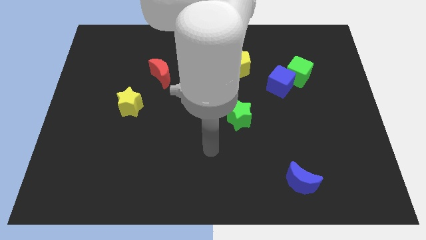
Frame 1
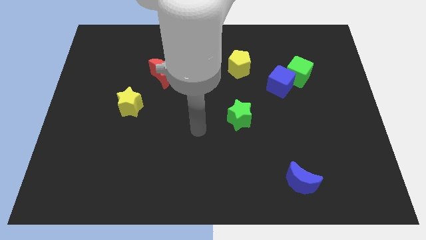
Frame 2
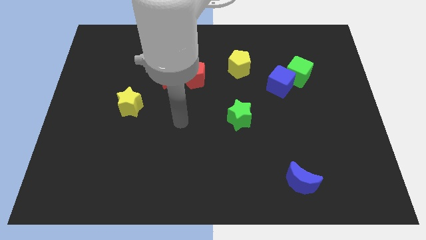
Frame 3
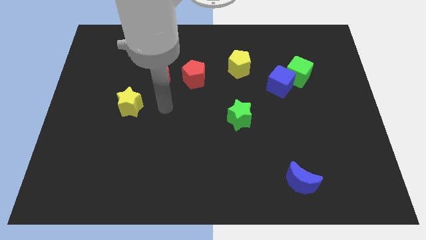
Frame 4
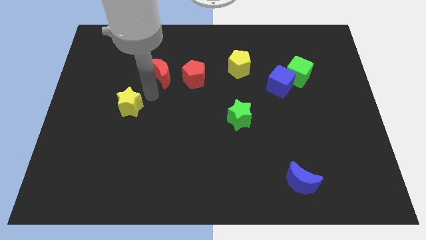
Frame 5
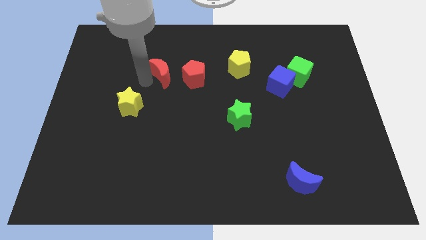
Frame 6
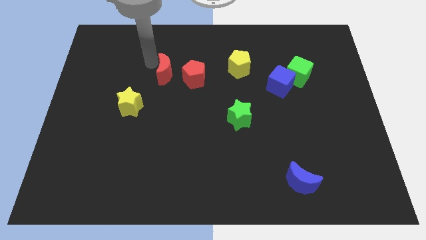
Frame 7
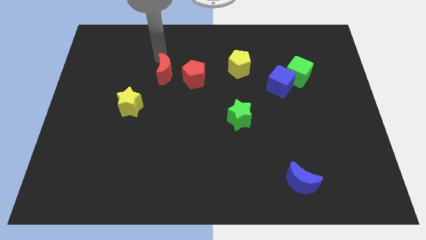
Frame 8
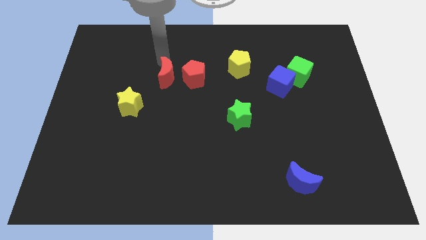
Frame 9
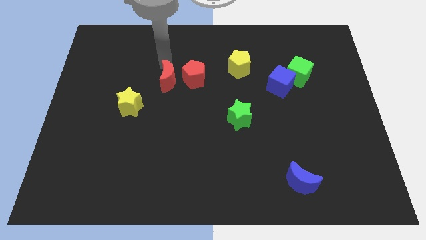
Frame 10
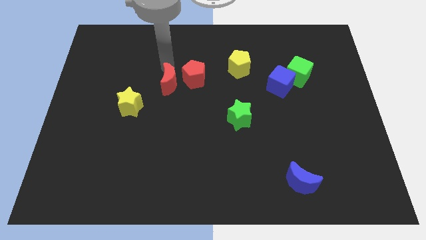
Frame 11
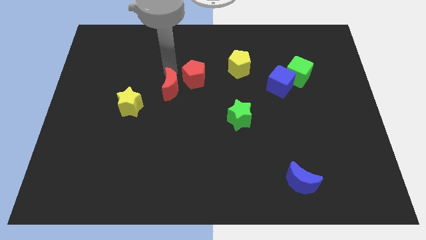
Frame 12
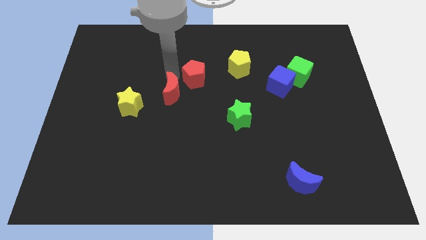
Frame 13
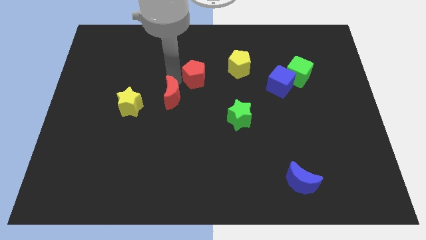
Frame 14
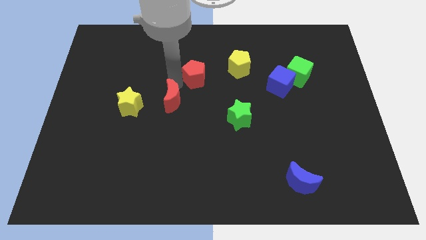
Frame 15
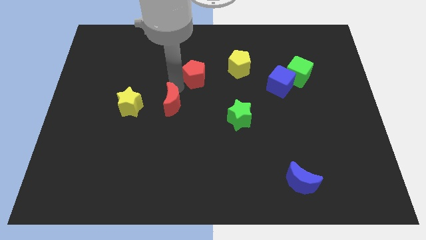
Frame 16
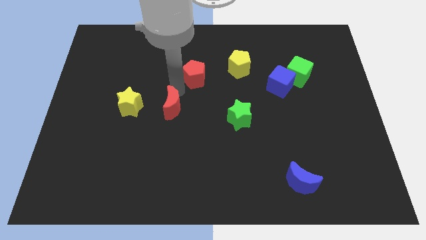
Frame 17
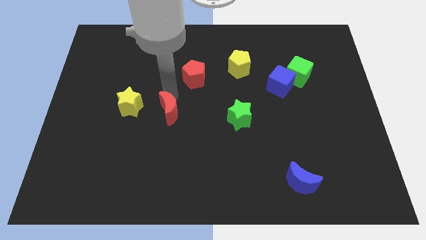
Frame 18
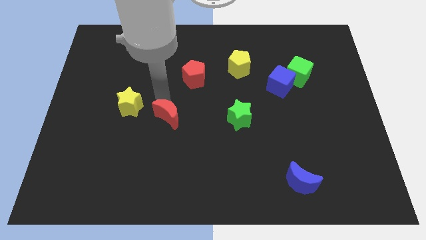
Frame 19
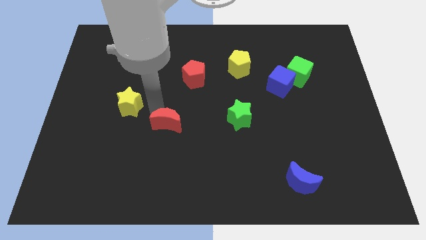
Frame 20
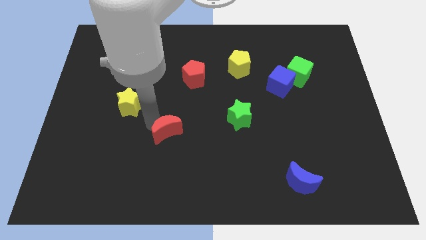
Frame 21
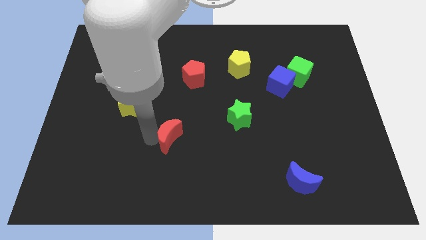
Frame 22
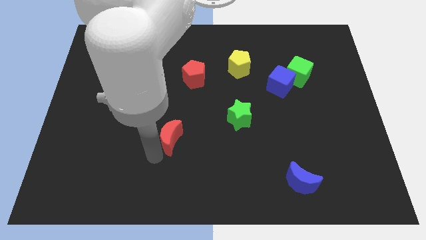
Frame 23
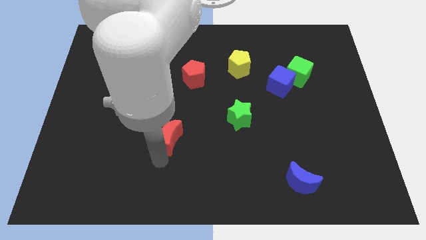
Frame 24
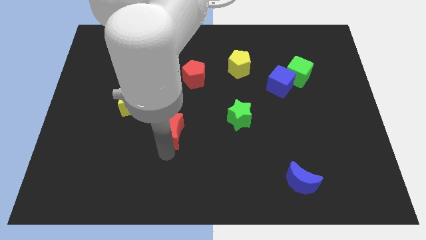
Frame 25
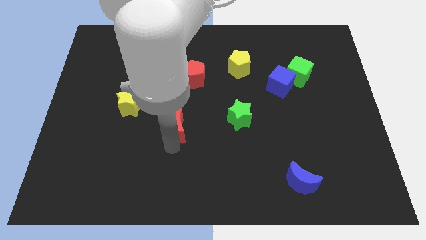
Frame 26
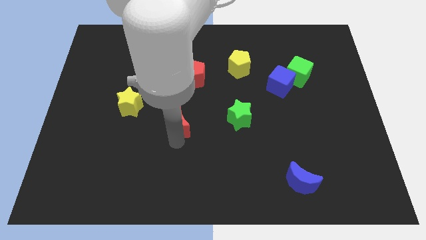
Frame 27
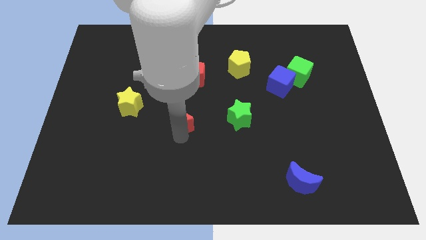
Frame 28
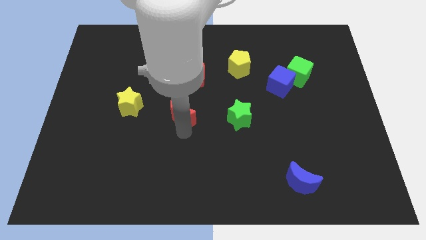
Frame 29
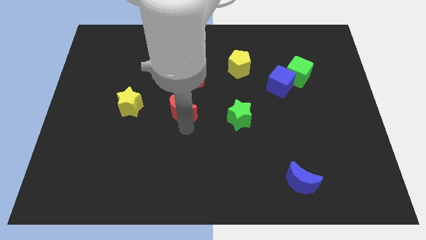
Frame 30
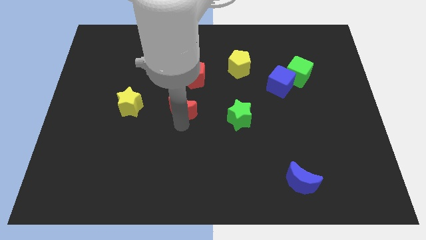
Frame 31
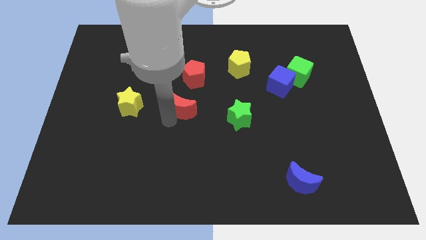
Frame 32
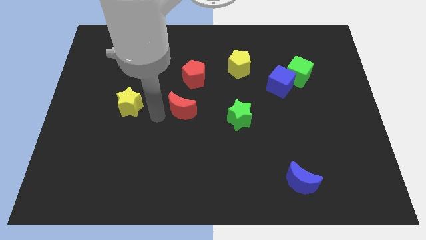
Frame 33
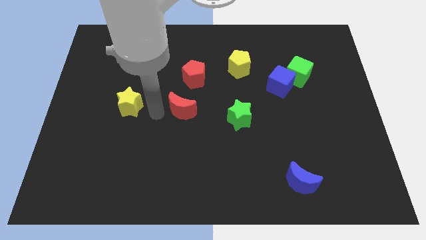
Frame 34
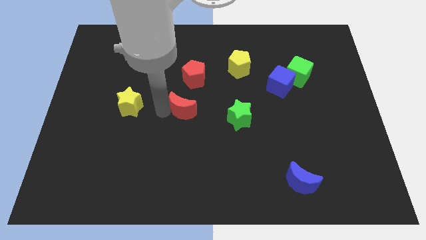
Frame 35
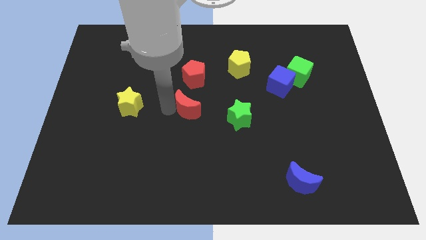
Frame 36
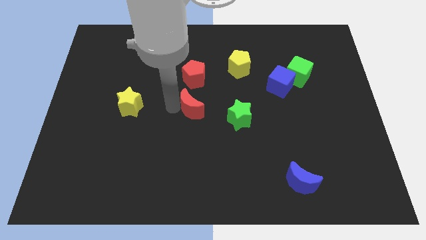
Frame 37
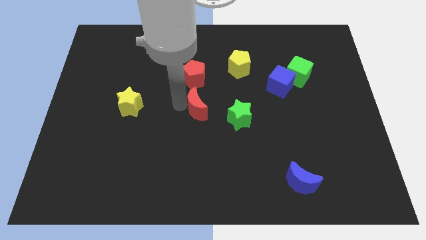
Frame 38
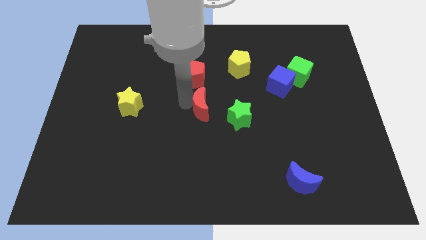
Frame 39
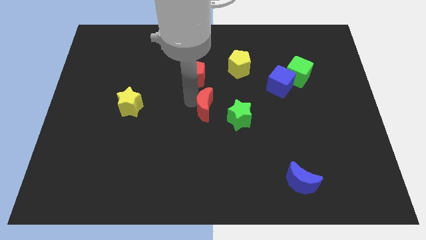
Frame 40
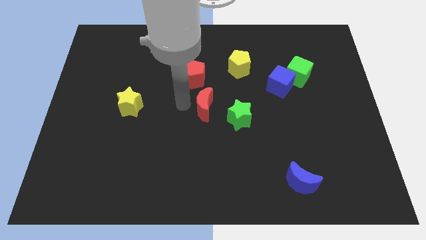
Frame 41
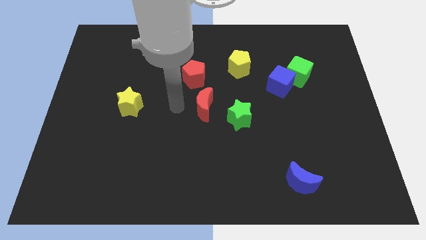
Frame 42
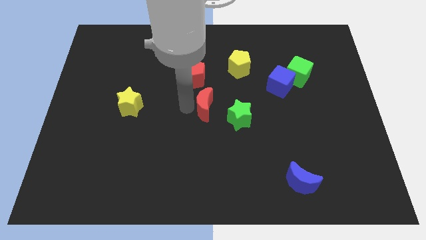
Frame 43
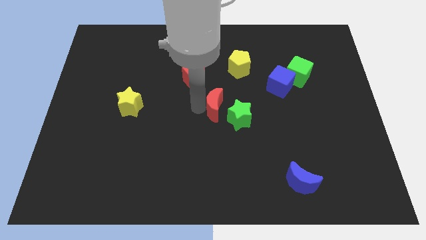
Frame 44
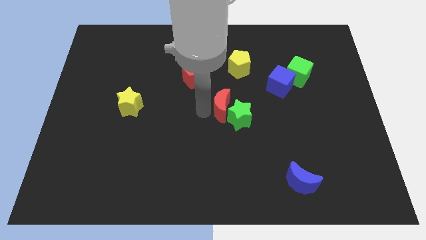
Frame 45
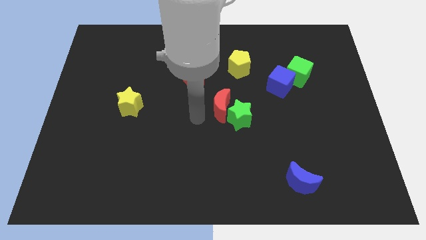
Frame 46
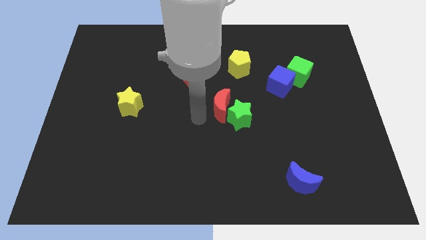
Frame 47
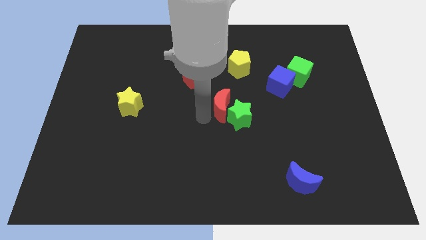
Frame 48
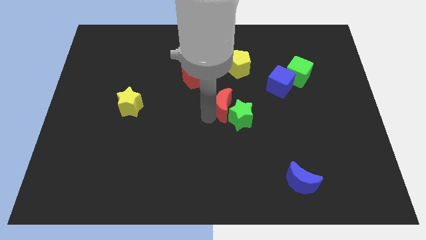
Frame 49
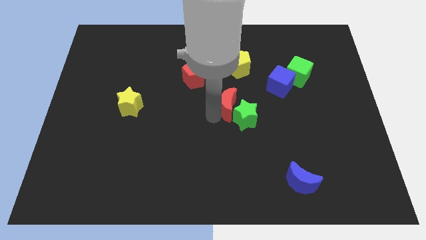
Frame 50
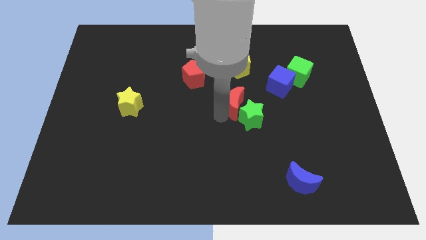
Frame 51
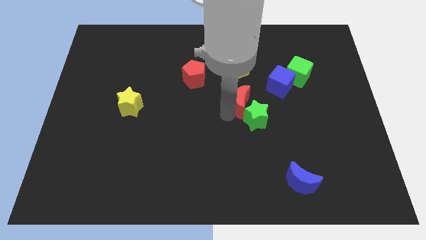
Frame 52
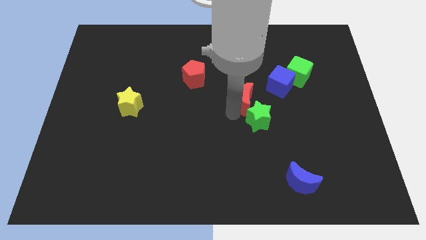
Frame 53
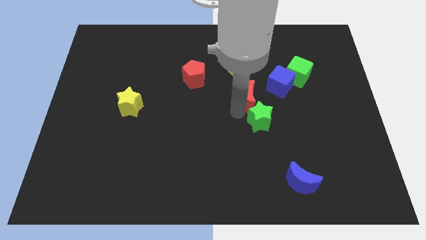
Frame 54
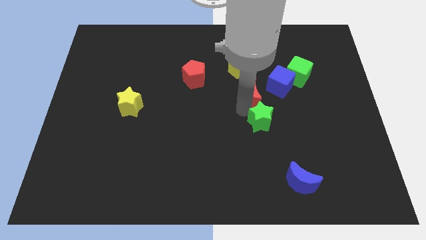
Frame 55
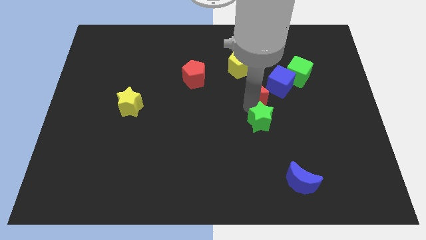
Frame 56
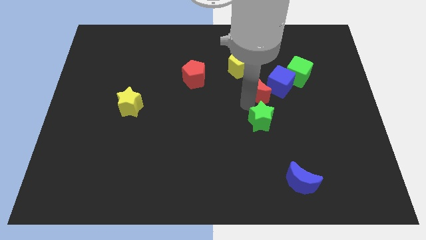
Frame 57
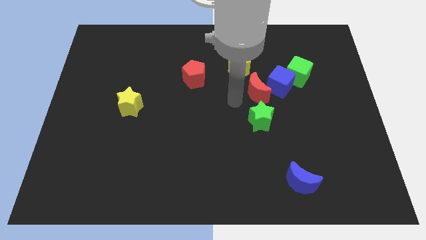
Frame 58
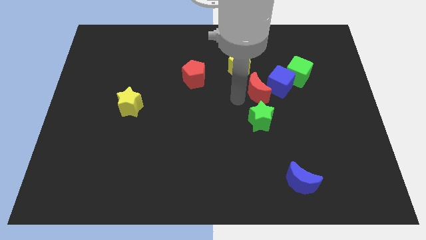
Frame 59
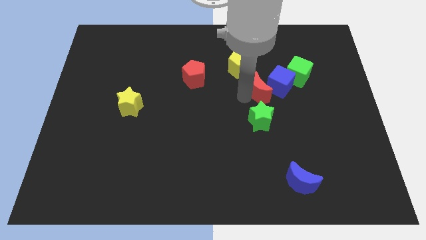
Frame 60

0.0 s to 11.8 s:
move the red moon to the blue cube

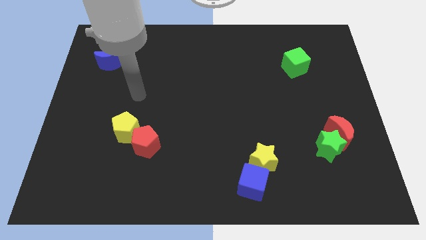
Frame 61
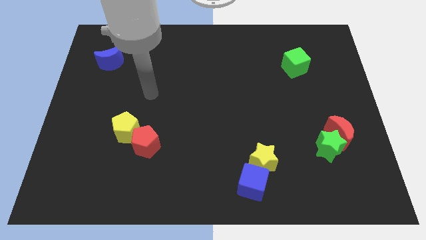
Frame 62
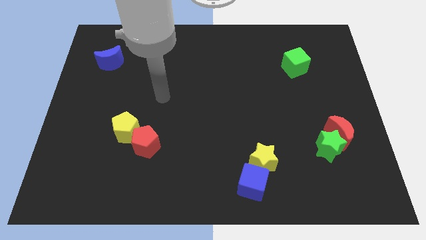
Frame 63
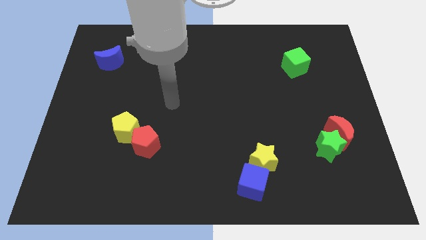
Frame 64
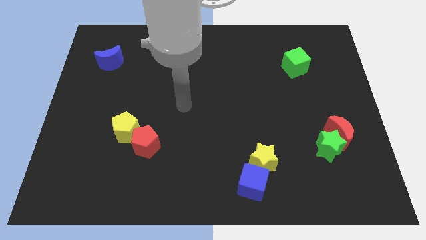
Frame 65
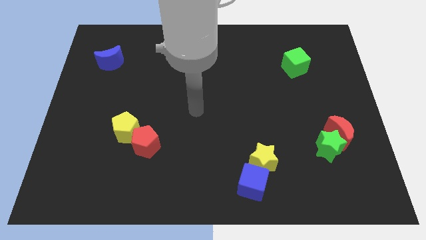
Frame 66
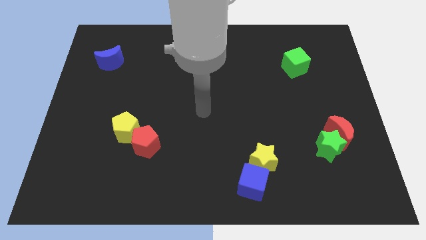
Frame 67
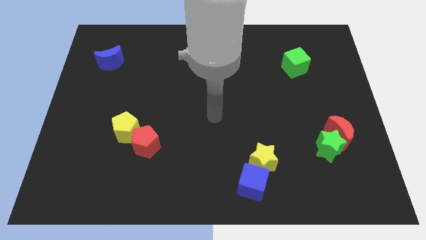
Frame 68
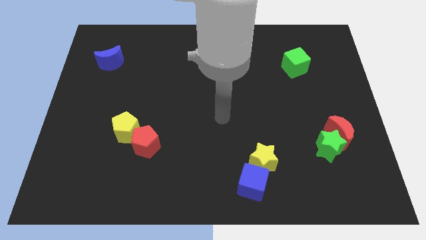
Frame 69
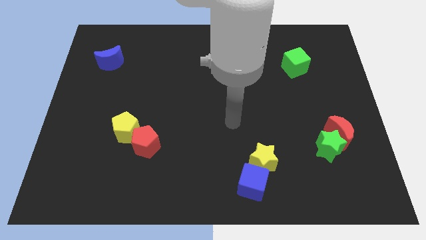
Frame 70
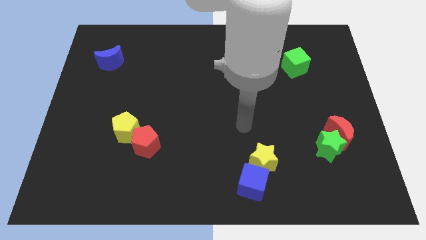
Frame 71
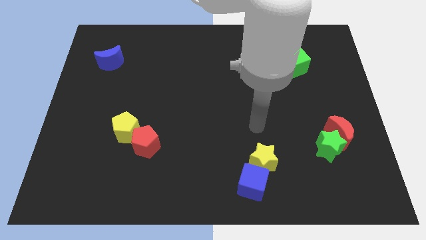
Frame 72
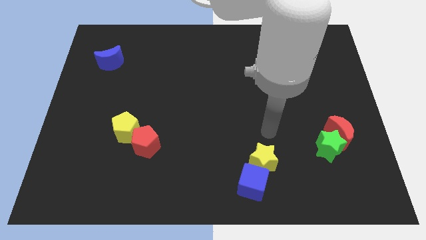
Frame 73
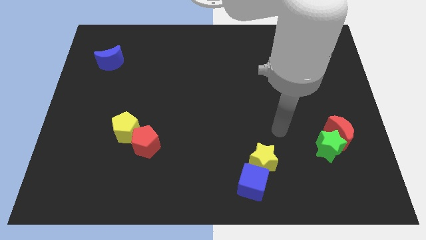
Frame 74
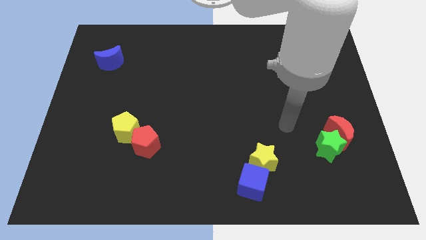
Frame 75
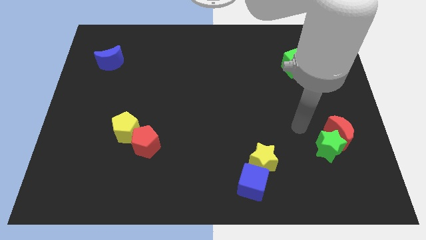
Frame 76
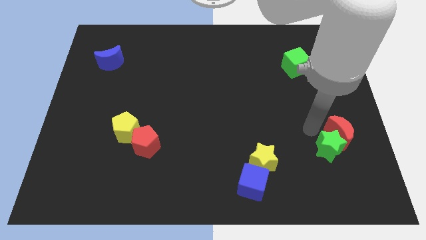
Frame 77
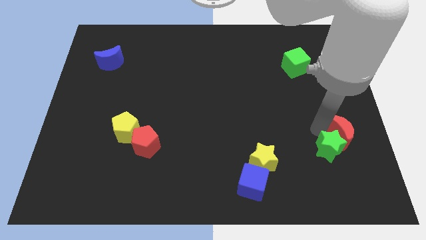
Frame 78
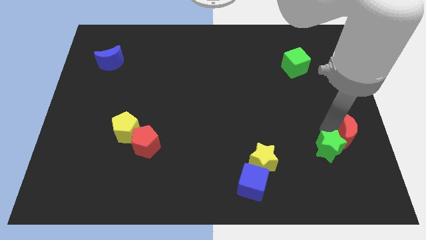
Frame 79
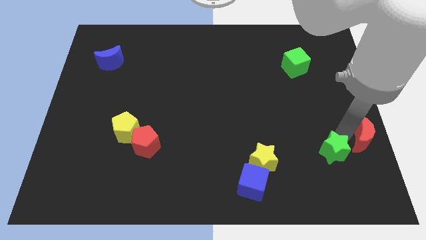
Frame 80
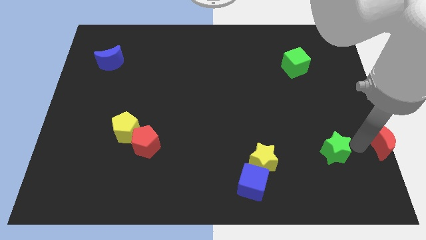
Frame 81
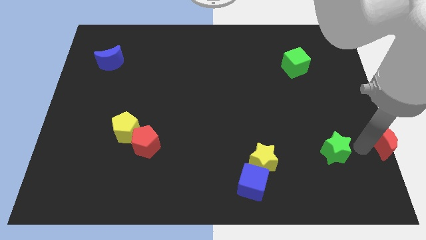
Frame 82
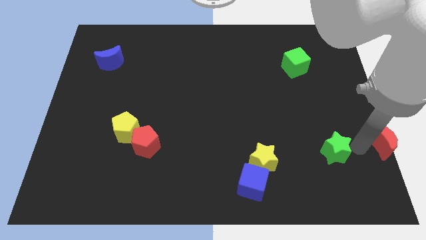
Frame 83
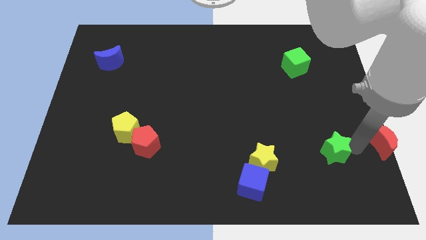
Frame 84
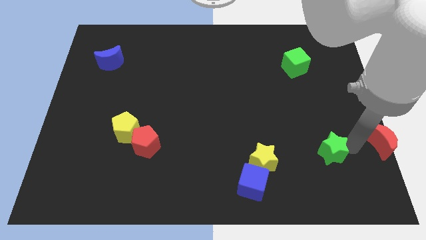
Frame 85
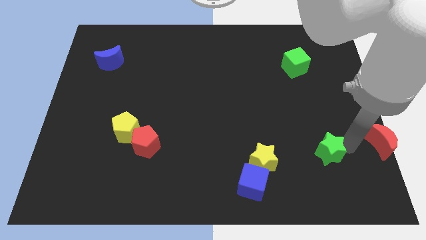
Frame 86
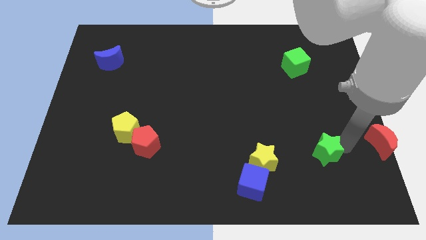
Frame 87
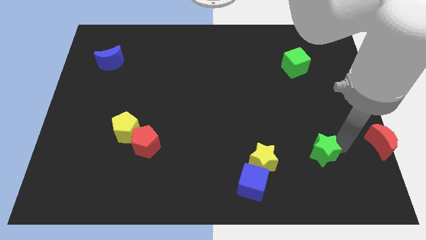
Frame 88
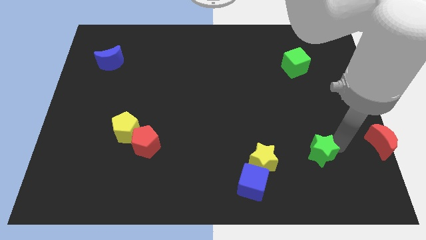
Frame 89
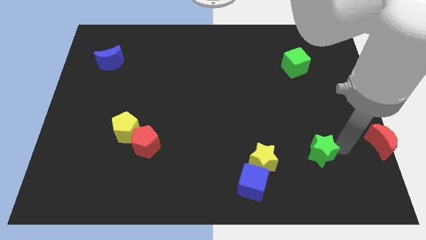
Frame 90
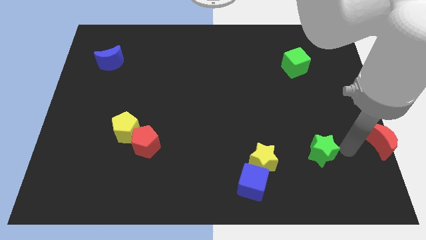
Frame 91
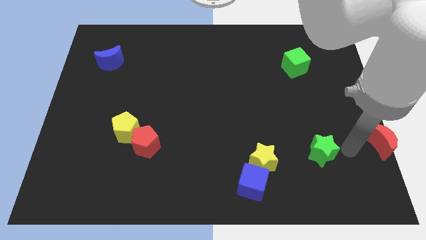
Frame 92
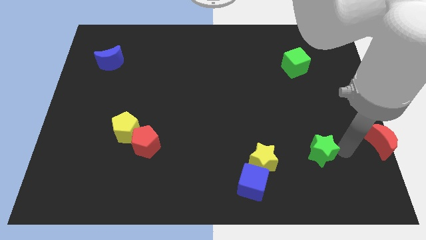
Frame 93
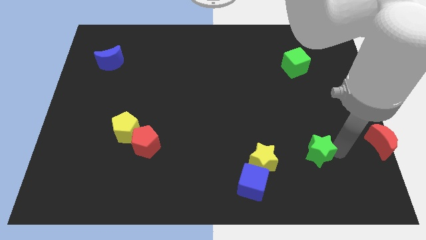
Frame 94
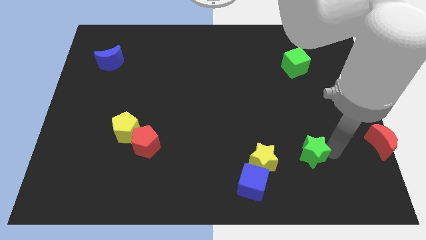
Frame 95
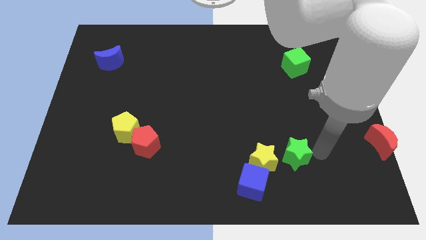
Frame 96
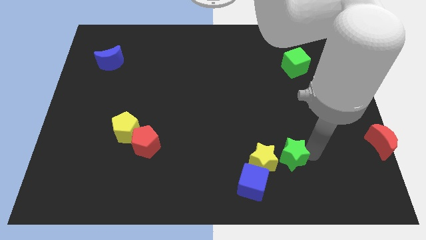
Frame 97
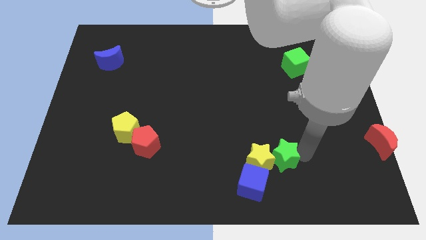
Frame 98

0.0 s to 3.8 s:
move the green star to the yellow star
